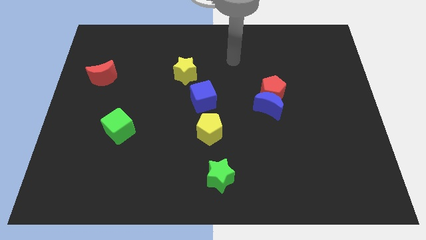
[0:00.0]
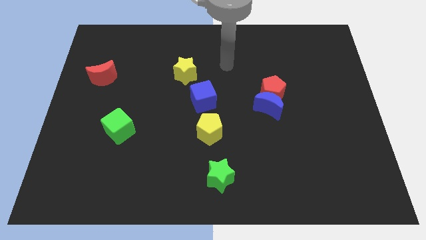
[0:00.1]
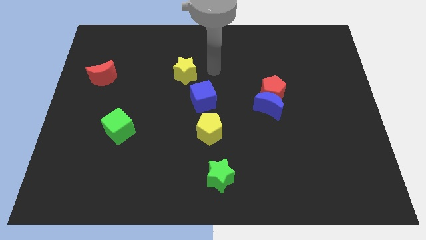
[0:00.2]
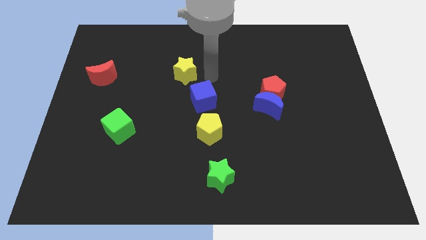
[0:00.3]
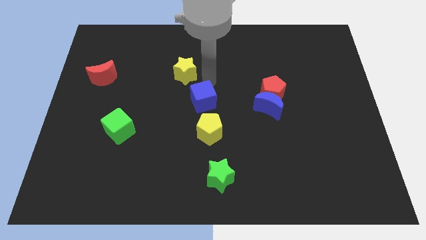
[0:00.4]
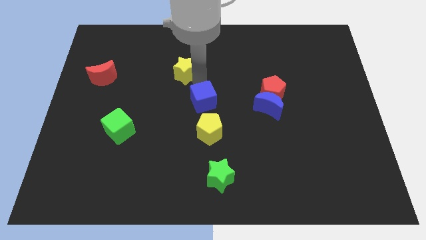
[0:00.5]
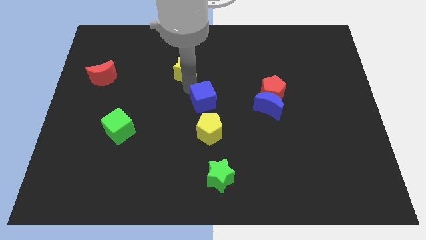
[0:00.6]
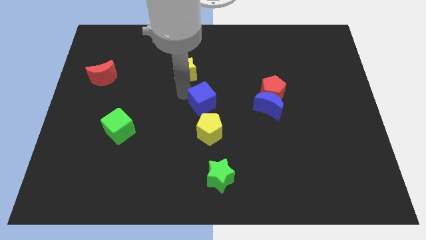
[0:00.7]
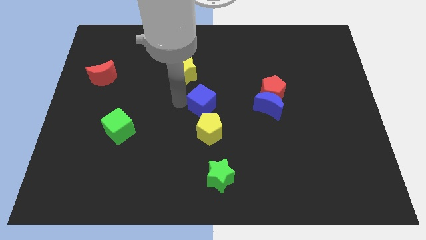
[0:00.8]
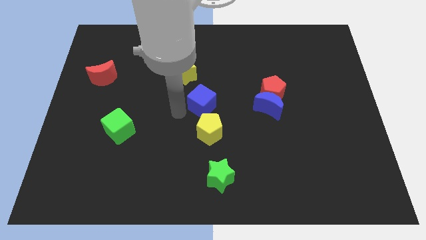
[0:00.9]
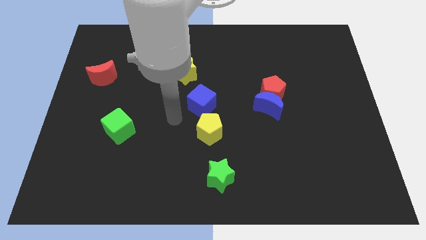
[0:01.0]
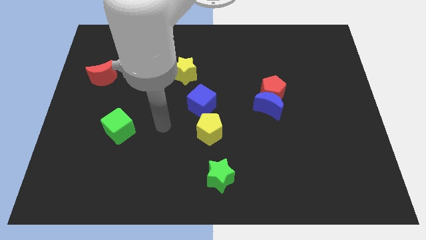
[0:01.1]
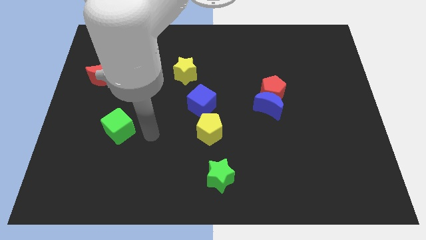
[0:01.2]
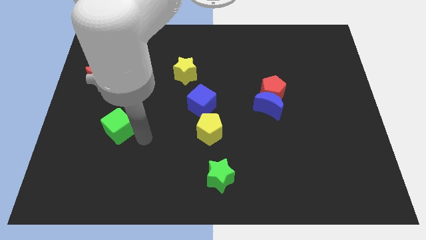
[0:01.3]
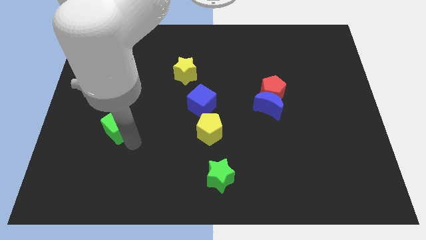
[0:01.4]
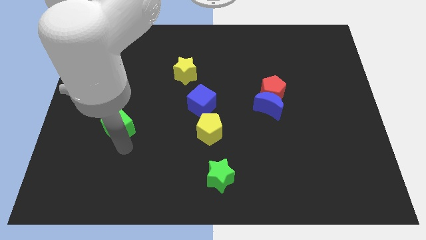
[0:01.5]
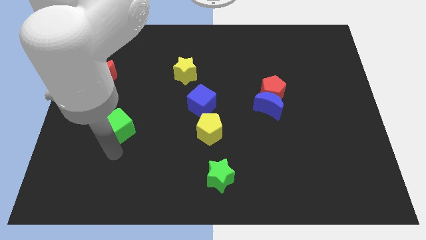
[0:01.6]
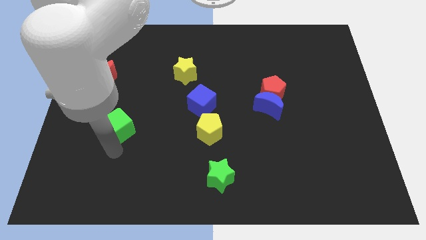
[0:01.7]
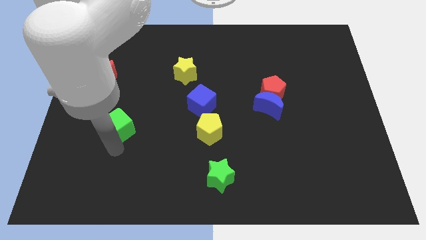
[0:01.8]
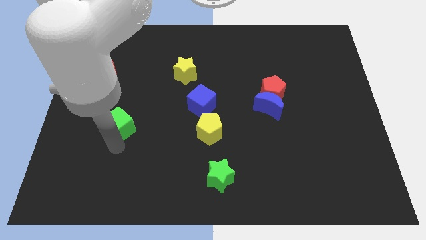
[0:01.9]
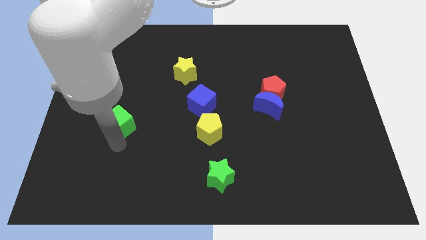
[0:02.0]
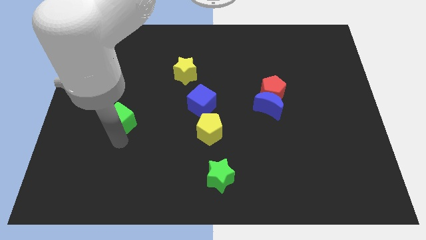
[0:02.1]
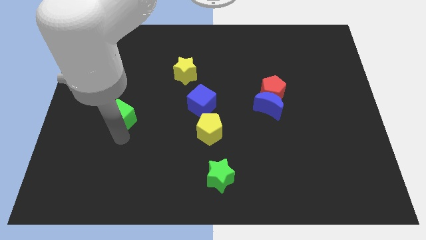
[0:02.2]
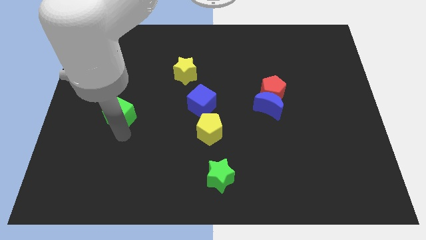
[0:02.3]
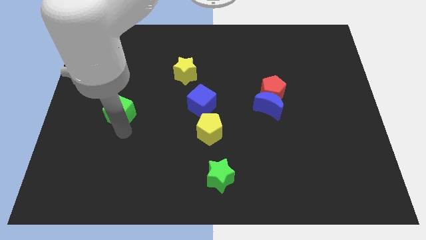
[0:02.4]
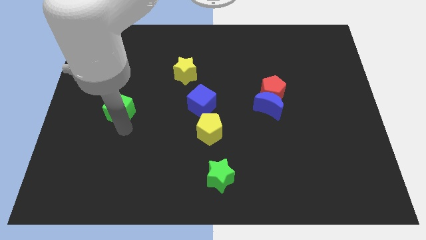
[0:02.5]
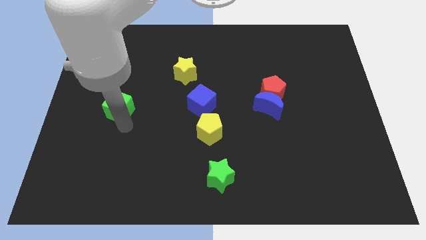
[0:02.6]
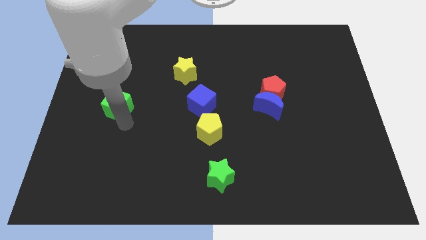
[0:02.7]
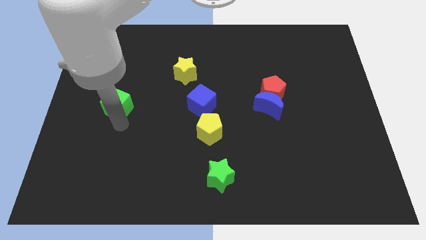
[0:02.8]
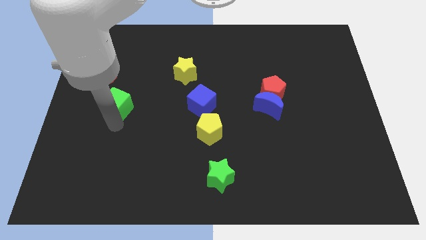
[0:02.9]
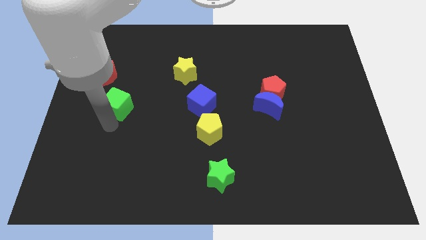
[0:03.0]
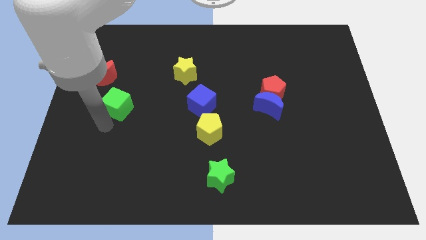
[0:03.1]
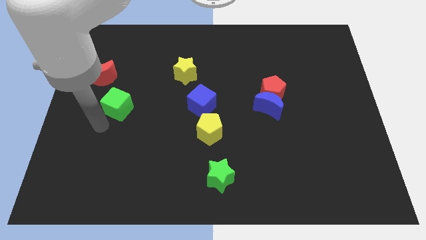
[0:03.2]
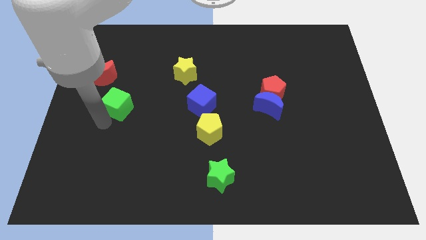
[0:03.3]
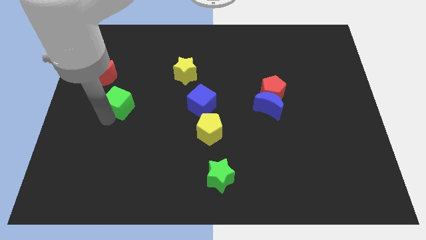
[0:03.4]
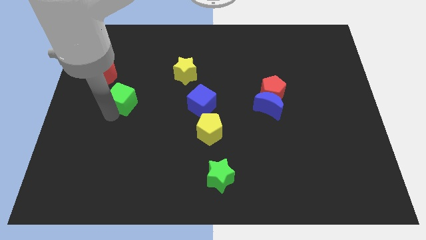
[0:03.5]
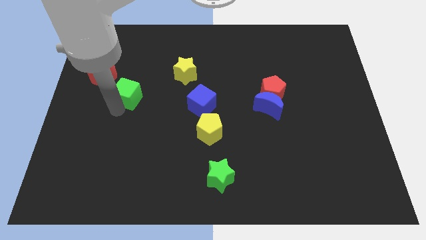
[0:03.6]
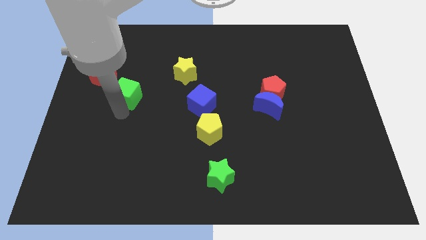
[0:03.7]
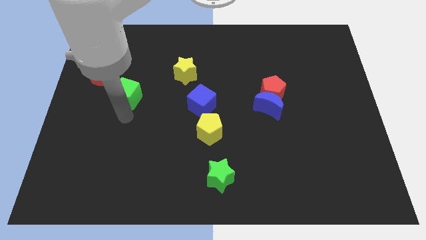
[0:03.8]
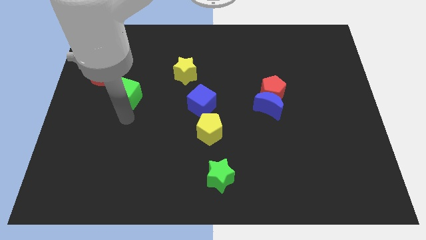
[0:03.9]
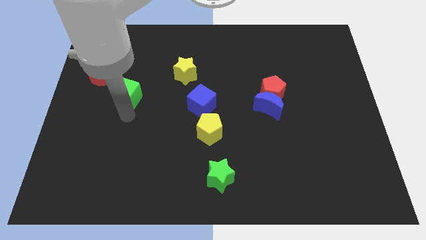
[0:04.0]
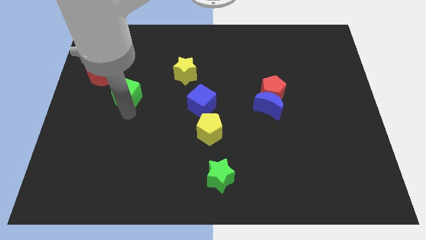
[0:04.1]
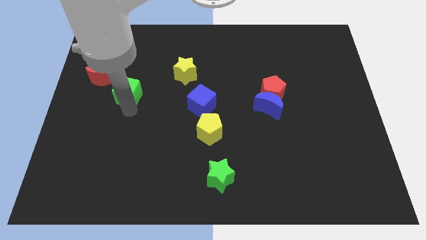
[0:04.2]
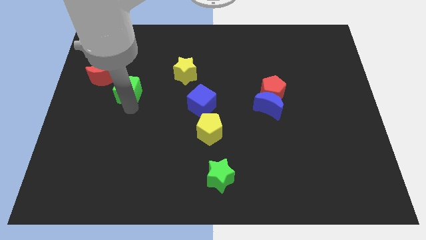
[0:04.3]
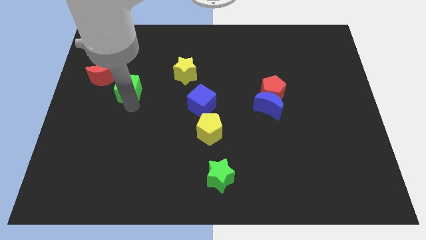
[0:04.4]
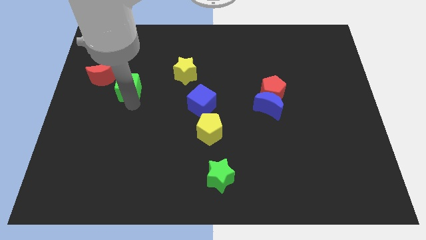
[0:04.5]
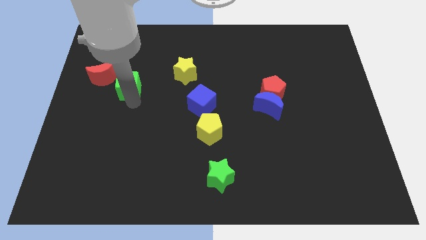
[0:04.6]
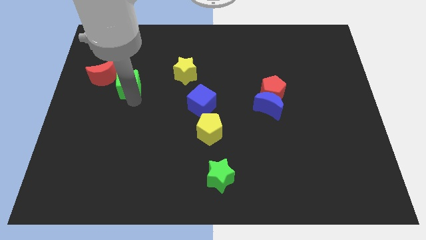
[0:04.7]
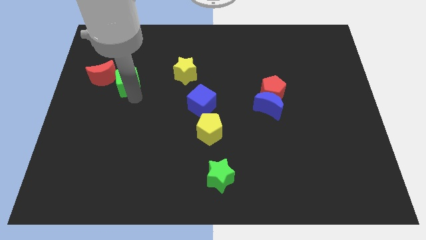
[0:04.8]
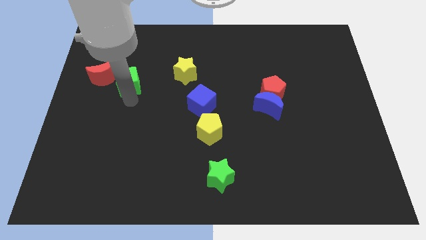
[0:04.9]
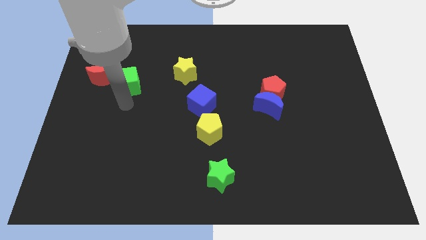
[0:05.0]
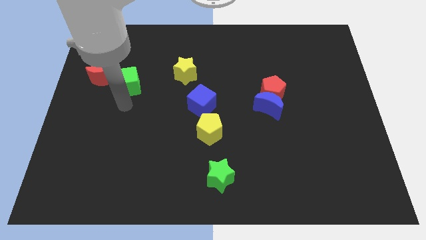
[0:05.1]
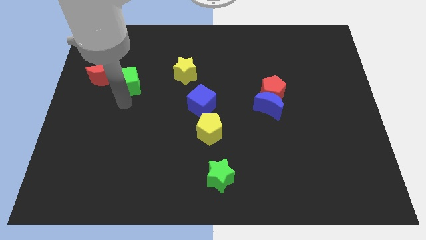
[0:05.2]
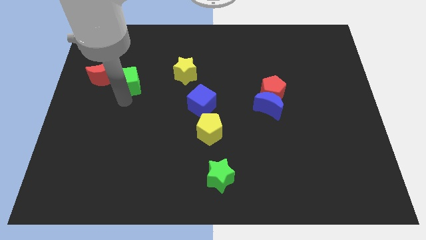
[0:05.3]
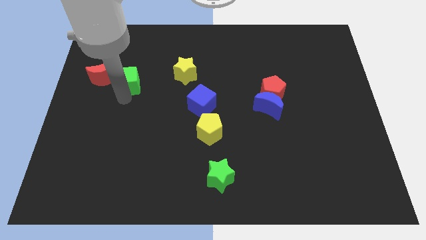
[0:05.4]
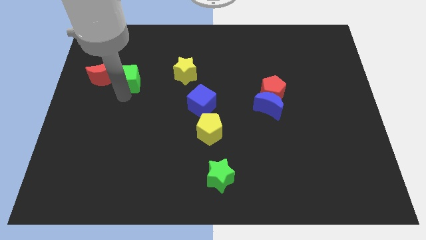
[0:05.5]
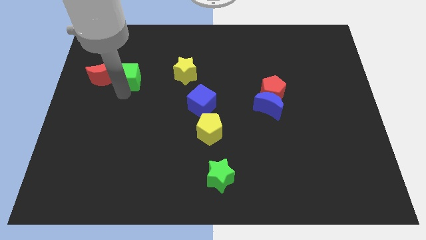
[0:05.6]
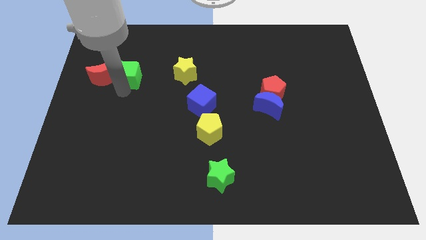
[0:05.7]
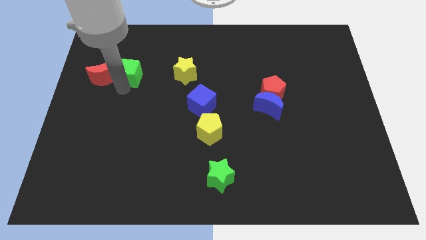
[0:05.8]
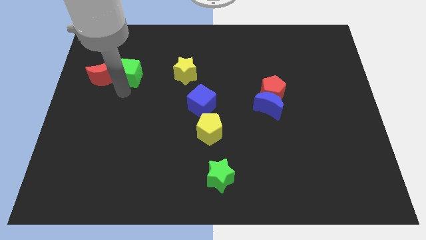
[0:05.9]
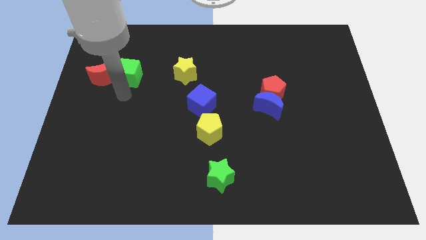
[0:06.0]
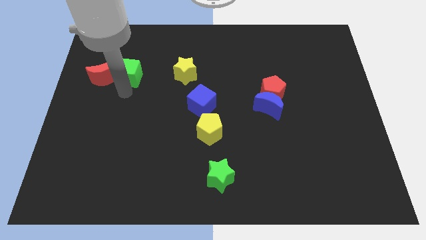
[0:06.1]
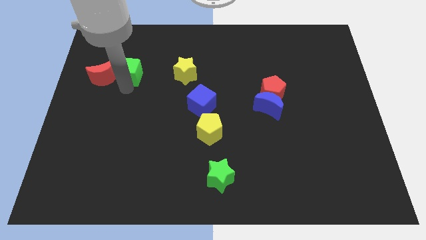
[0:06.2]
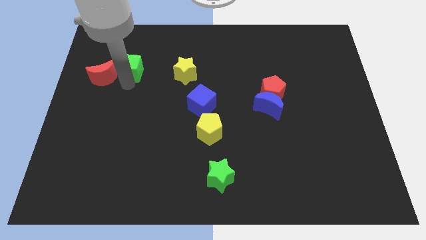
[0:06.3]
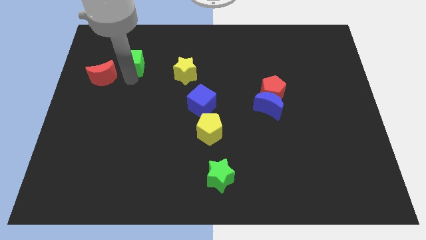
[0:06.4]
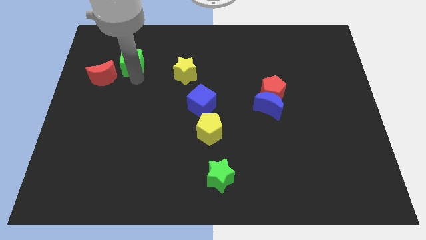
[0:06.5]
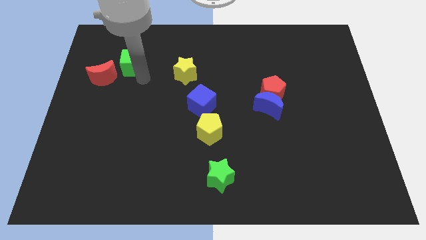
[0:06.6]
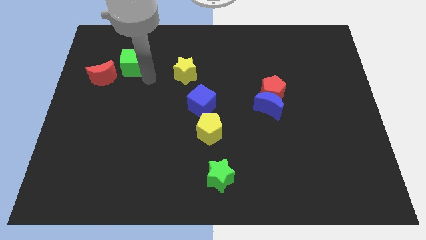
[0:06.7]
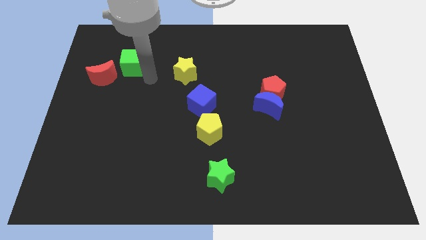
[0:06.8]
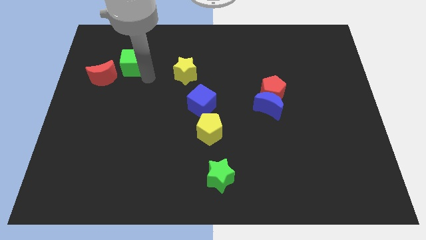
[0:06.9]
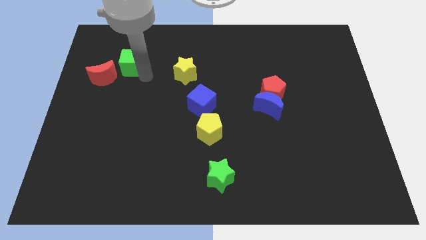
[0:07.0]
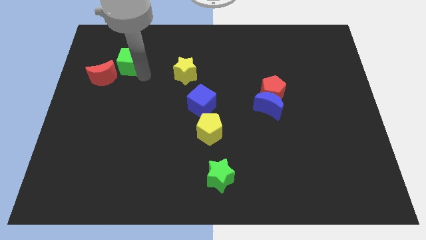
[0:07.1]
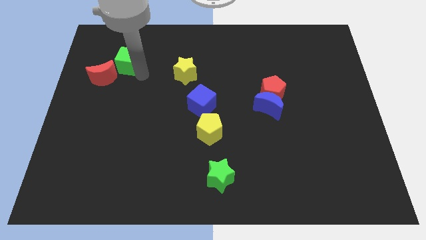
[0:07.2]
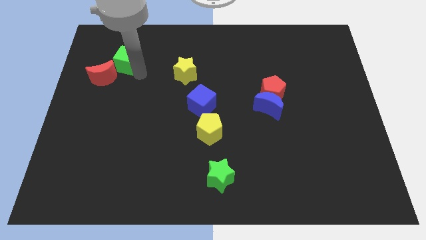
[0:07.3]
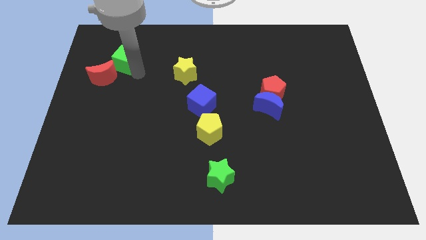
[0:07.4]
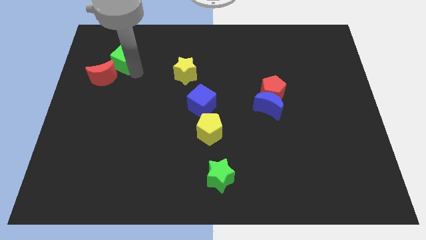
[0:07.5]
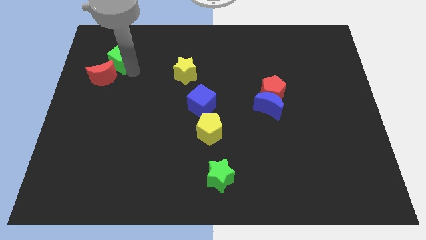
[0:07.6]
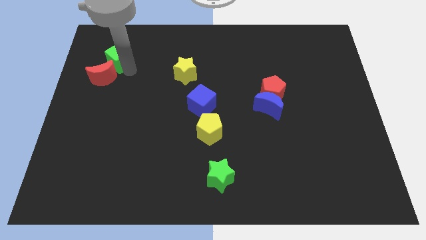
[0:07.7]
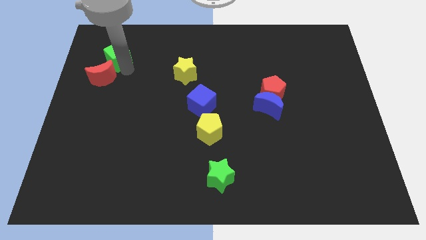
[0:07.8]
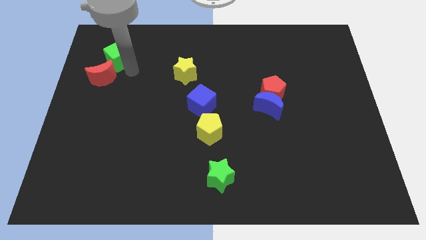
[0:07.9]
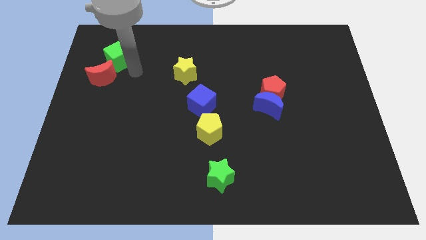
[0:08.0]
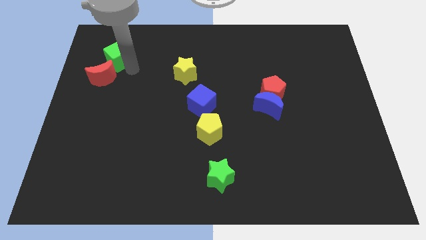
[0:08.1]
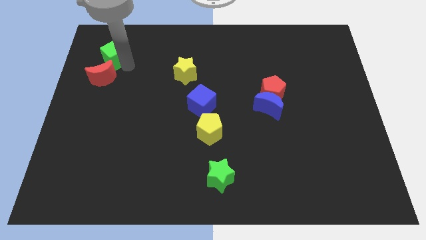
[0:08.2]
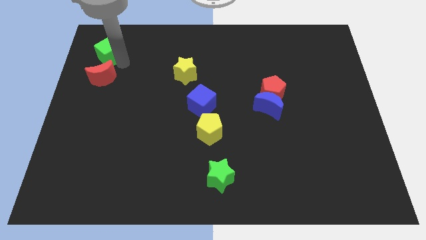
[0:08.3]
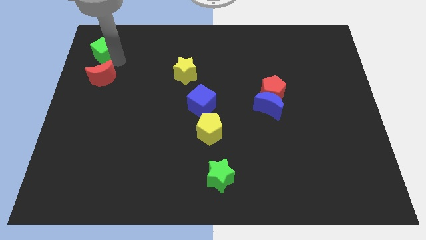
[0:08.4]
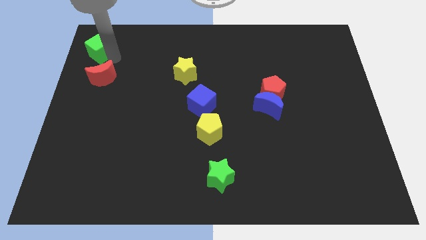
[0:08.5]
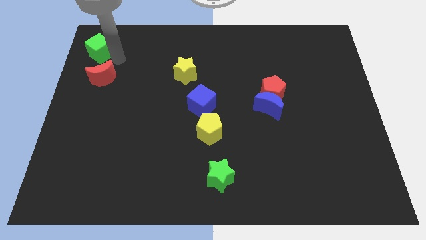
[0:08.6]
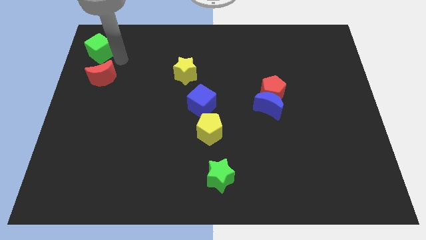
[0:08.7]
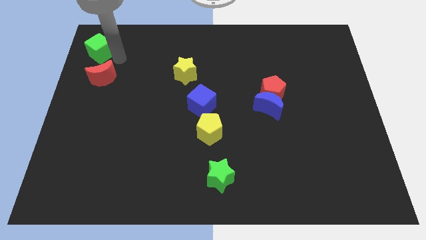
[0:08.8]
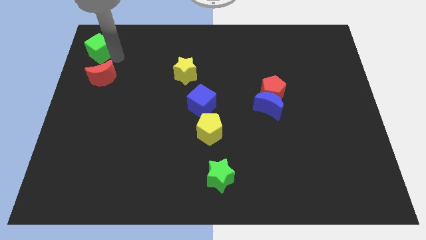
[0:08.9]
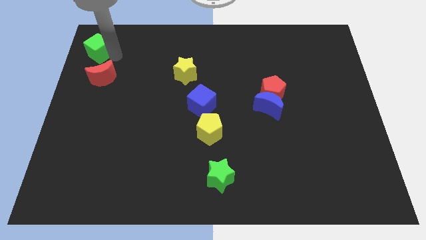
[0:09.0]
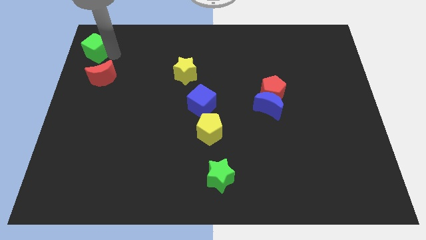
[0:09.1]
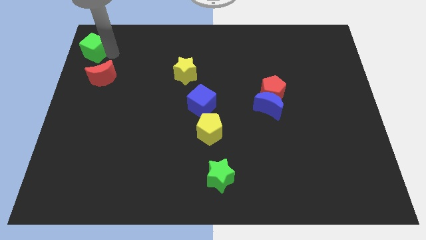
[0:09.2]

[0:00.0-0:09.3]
push the green cube to the top left of the board
